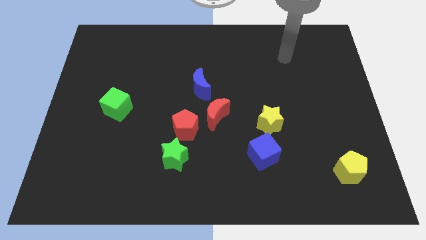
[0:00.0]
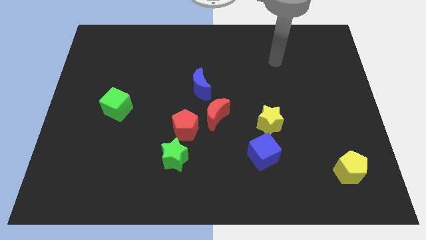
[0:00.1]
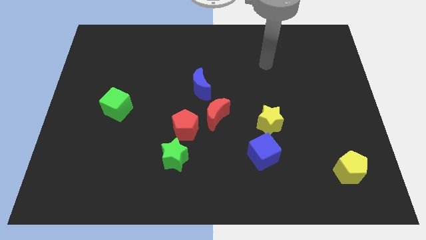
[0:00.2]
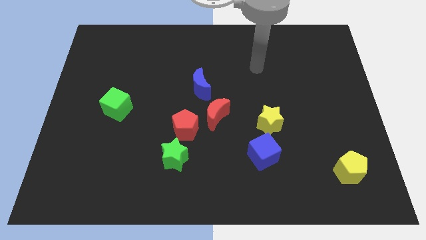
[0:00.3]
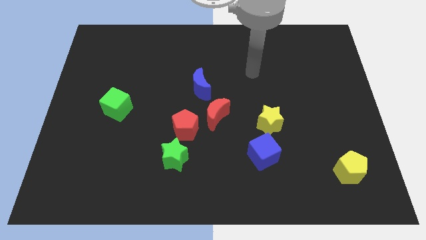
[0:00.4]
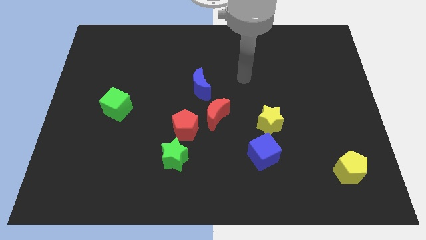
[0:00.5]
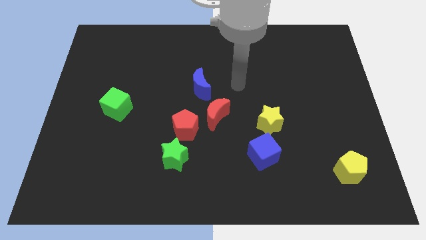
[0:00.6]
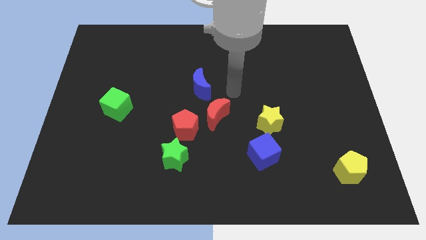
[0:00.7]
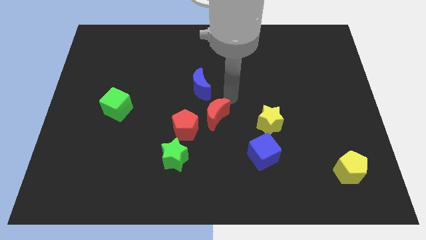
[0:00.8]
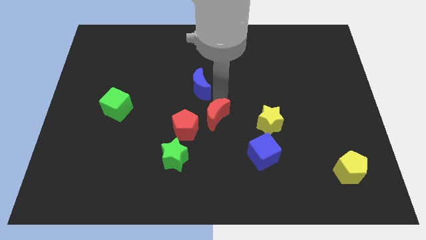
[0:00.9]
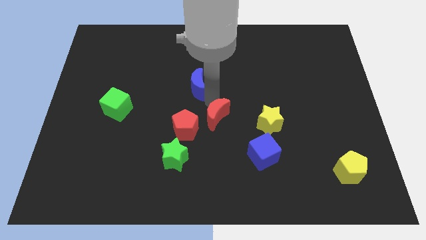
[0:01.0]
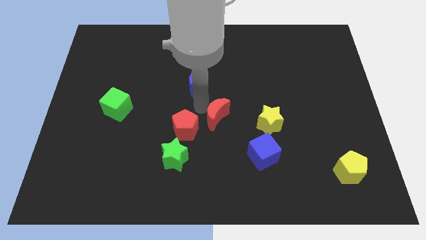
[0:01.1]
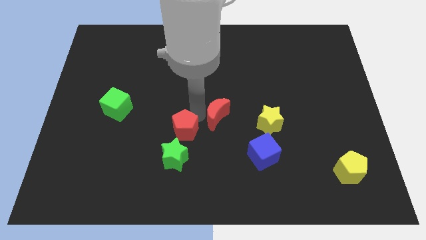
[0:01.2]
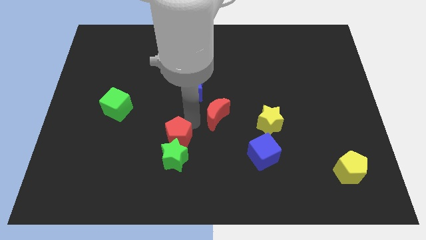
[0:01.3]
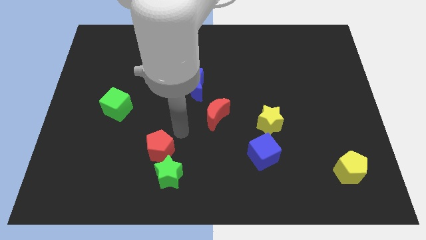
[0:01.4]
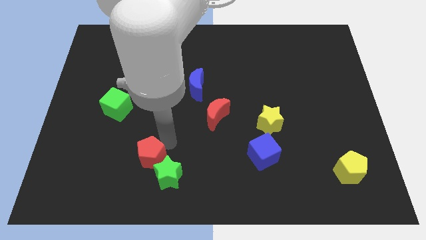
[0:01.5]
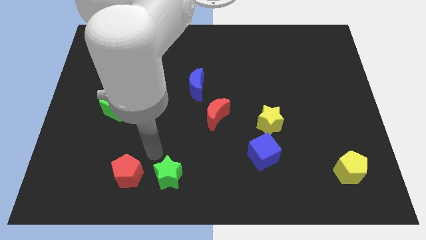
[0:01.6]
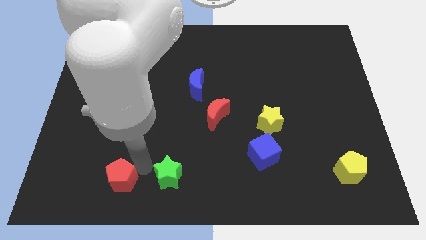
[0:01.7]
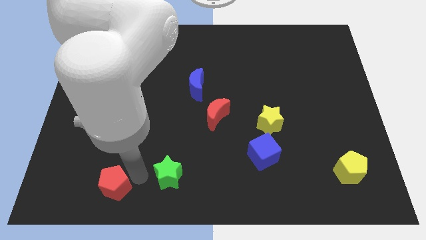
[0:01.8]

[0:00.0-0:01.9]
separate the green star from the red pentagon

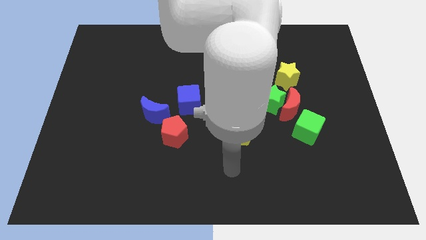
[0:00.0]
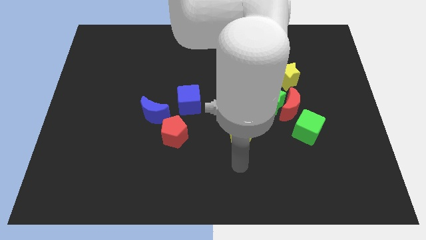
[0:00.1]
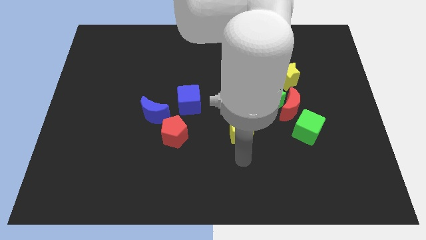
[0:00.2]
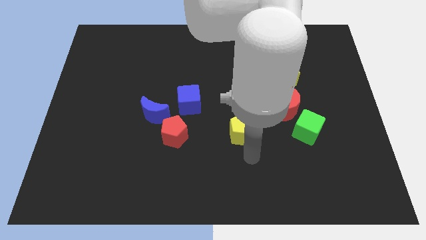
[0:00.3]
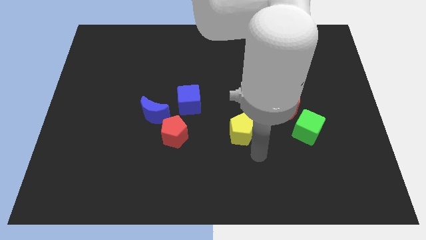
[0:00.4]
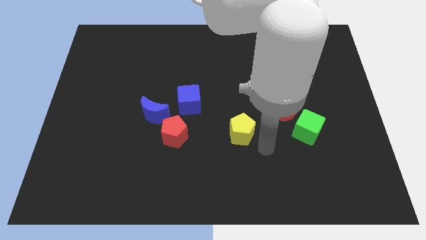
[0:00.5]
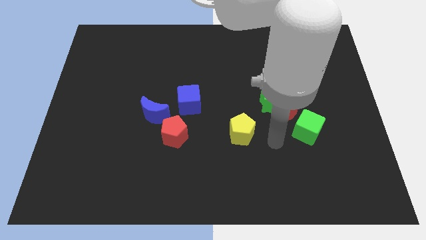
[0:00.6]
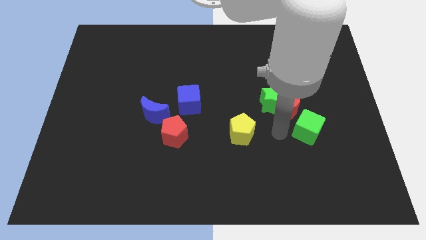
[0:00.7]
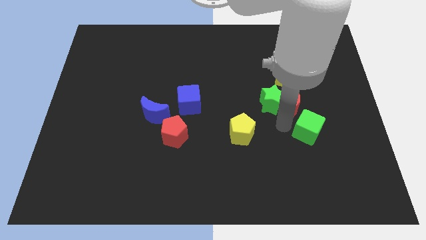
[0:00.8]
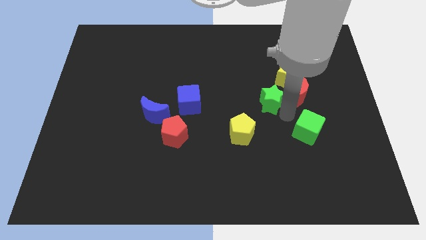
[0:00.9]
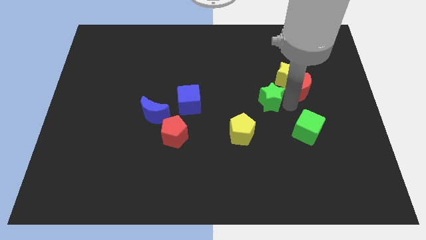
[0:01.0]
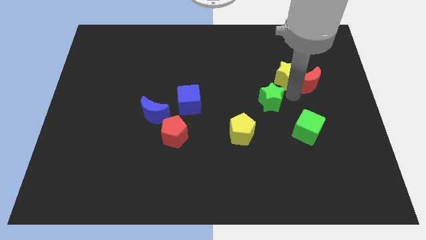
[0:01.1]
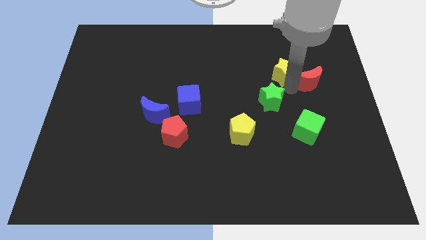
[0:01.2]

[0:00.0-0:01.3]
separate the green star from the red moon and yellow star

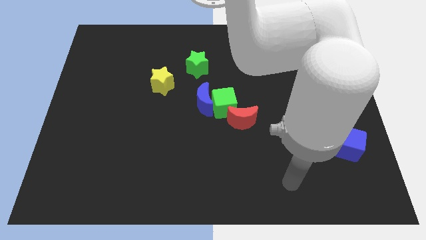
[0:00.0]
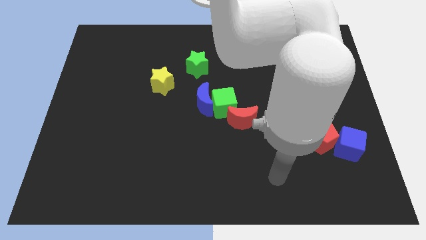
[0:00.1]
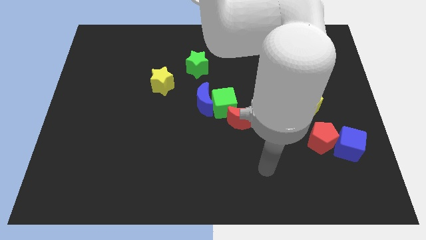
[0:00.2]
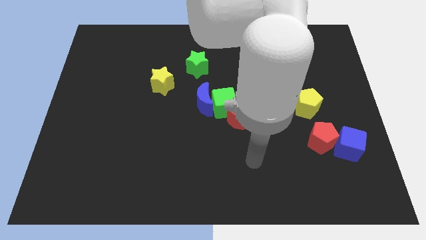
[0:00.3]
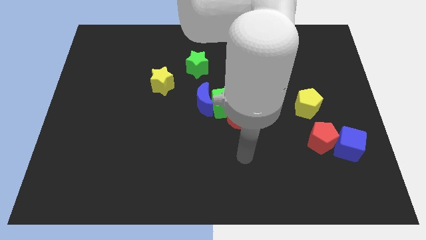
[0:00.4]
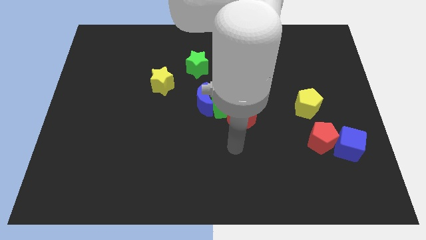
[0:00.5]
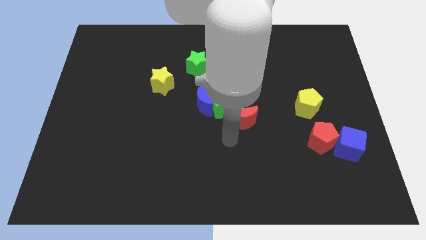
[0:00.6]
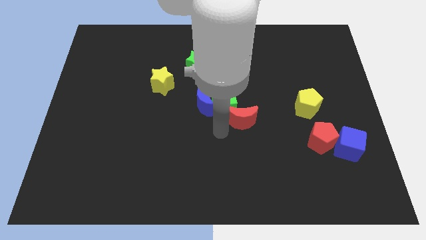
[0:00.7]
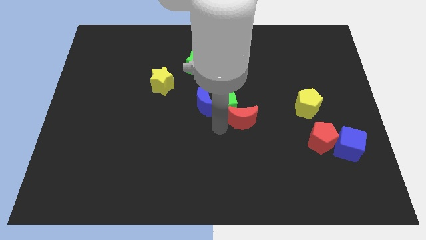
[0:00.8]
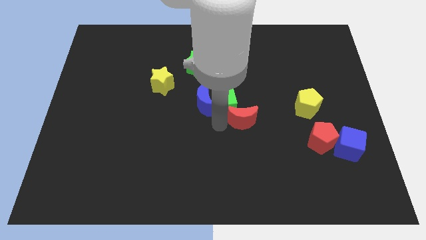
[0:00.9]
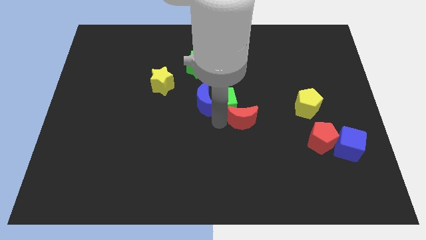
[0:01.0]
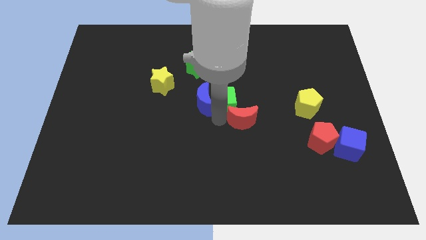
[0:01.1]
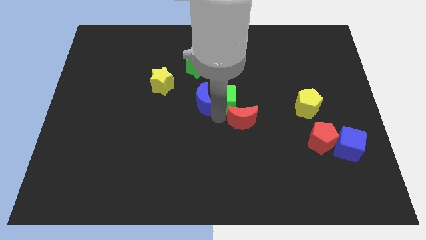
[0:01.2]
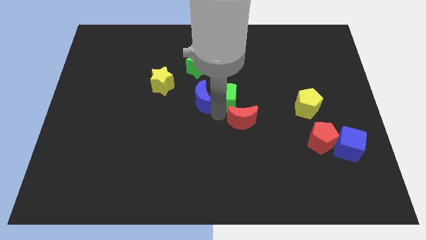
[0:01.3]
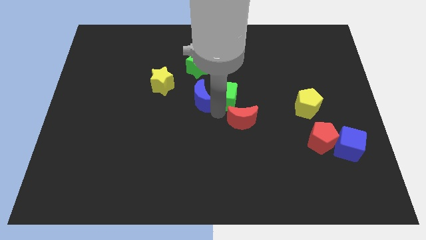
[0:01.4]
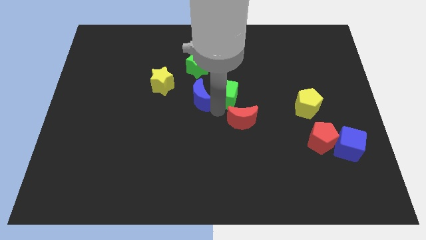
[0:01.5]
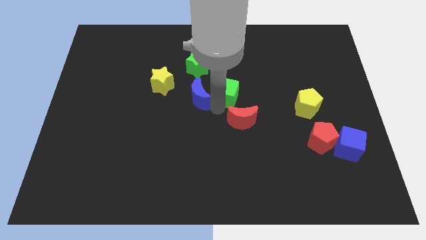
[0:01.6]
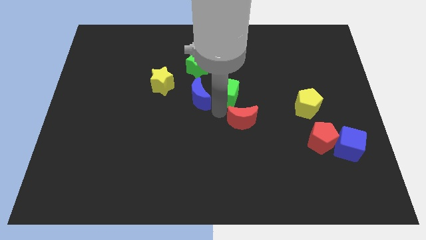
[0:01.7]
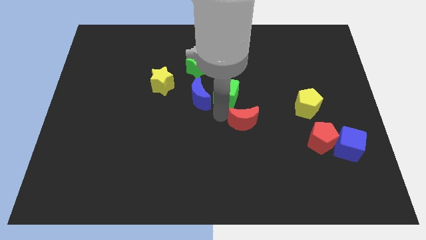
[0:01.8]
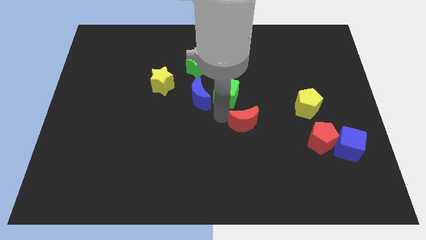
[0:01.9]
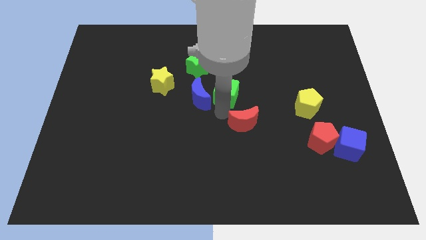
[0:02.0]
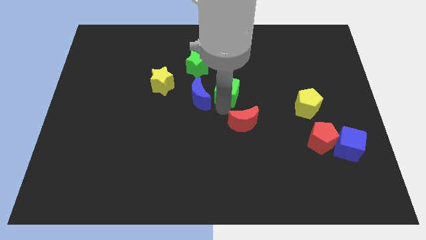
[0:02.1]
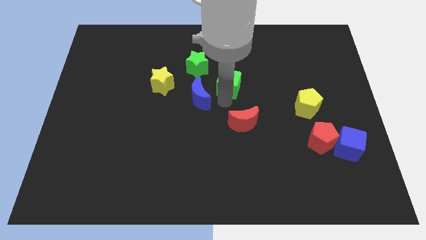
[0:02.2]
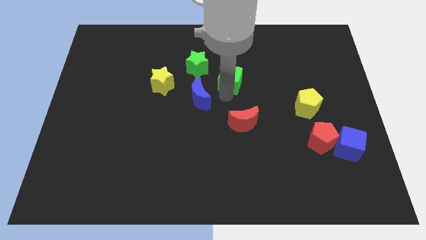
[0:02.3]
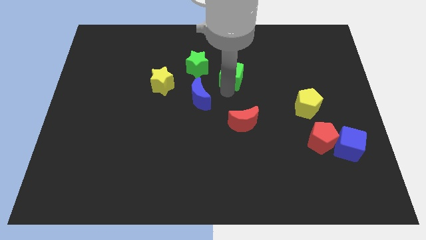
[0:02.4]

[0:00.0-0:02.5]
separate the green cube from the blue moon and red moon

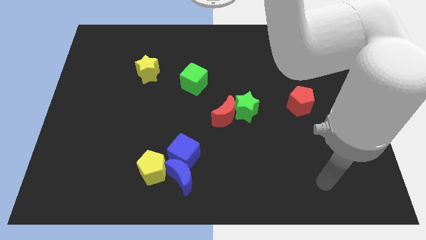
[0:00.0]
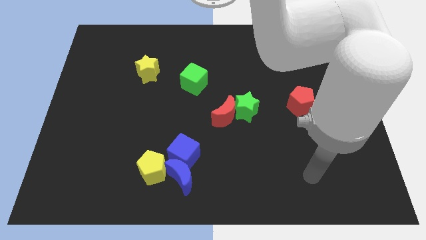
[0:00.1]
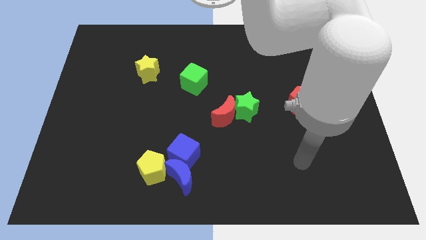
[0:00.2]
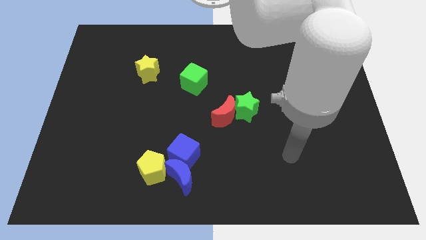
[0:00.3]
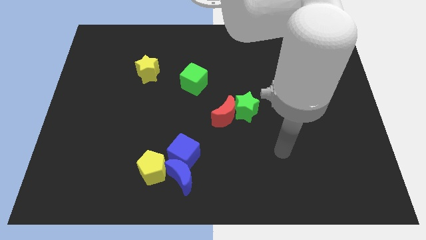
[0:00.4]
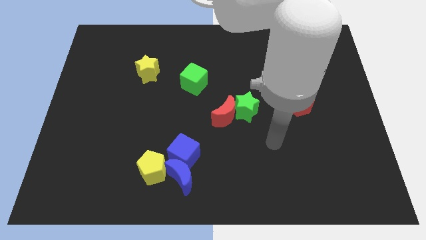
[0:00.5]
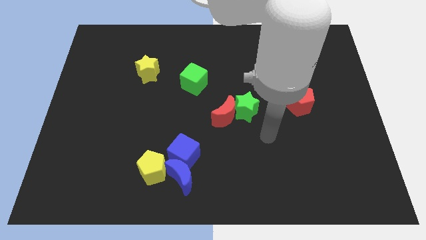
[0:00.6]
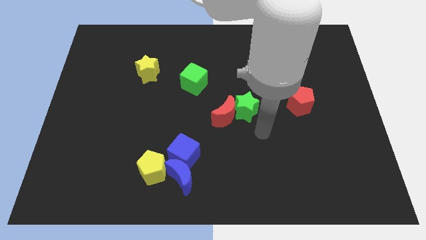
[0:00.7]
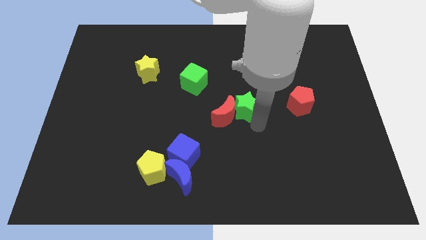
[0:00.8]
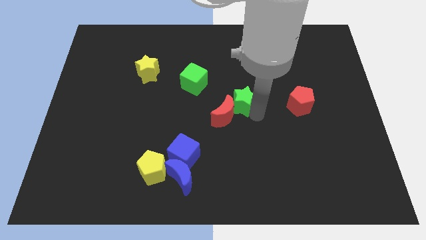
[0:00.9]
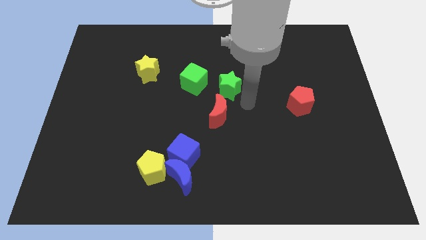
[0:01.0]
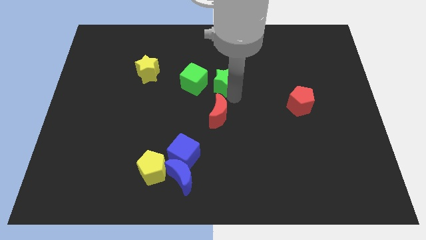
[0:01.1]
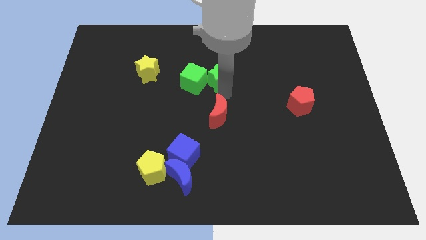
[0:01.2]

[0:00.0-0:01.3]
move the red moon away from the green star

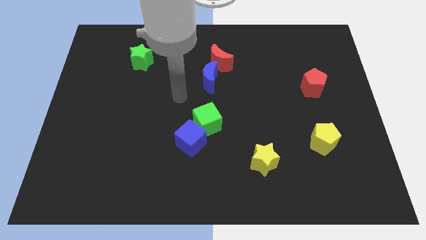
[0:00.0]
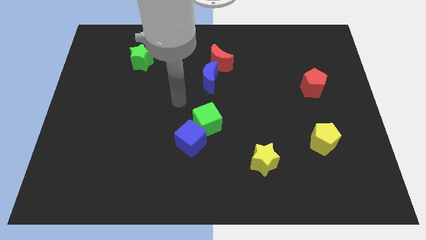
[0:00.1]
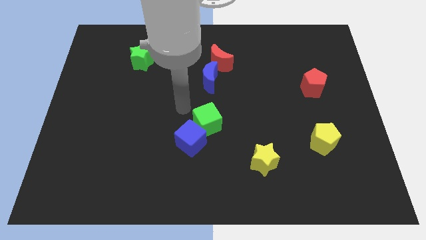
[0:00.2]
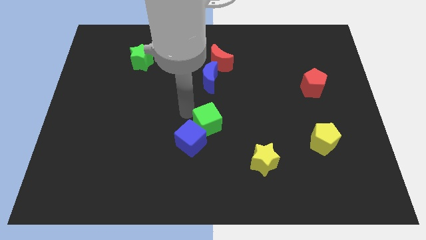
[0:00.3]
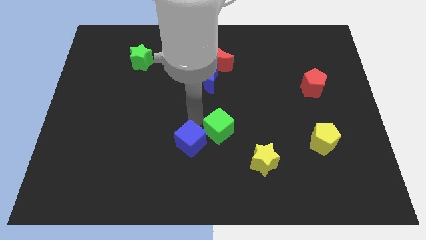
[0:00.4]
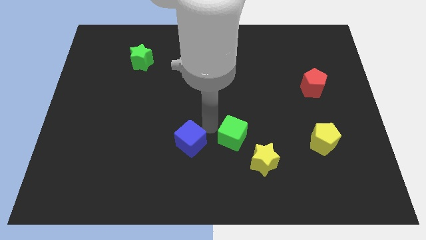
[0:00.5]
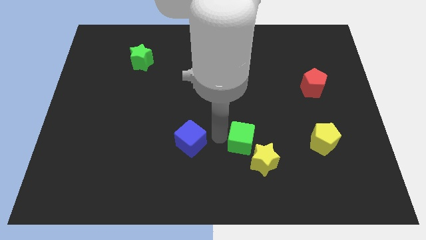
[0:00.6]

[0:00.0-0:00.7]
pull the blue cube apart from the green cube

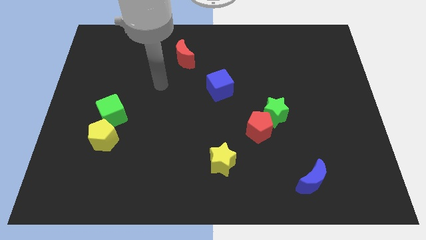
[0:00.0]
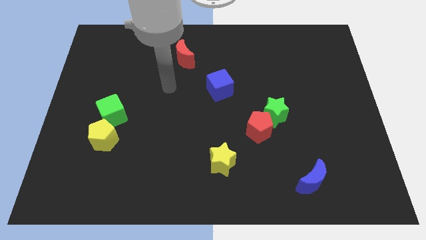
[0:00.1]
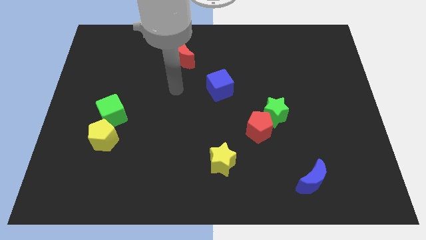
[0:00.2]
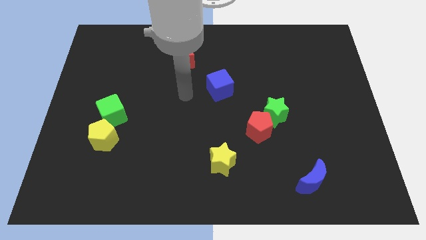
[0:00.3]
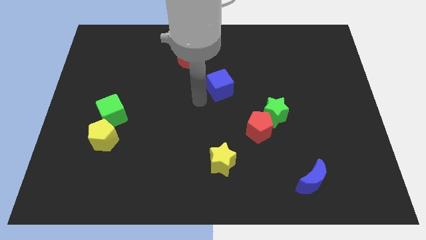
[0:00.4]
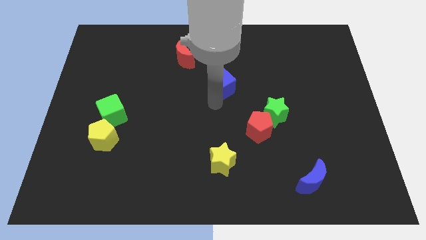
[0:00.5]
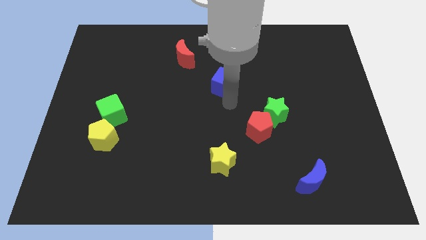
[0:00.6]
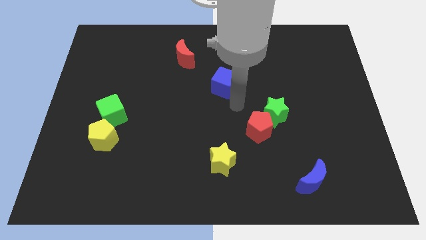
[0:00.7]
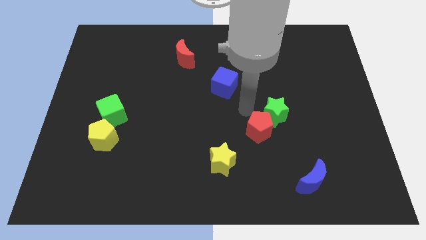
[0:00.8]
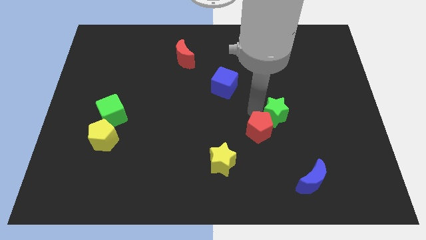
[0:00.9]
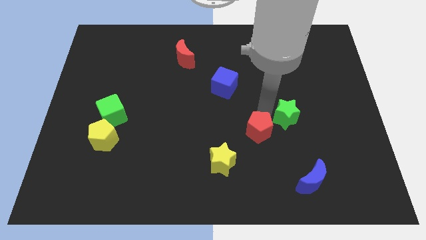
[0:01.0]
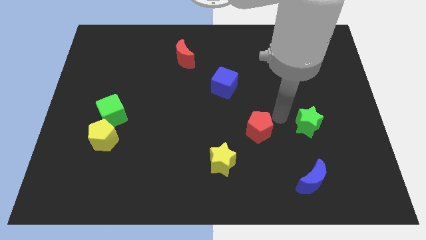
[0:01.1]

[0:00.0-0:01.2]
move the red pentagon away from the green star

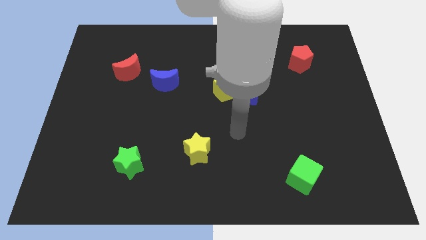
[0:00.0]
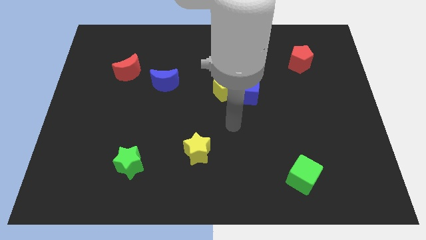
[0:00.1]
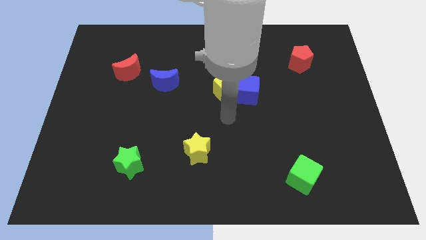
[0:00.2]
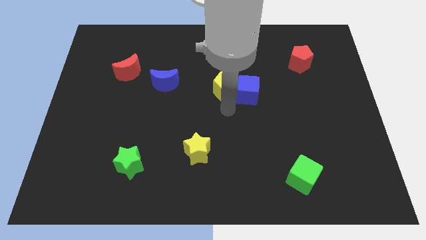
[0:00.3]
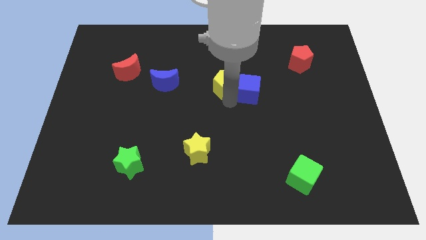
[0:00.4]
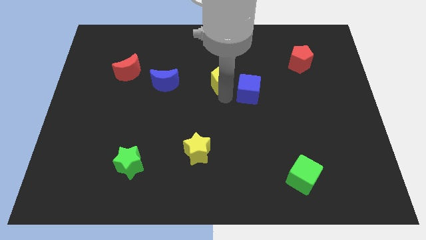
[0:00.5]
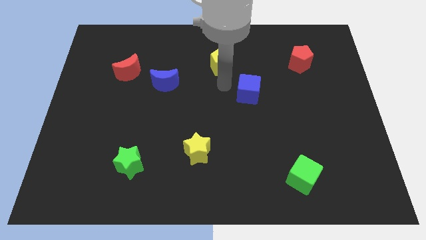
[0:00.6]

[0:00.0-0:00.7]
separate the blue cube from the yellow pentagon
